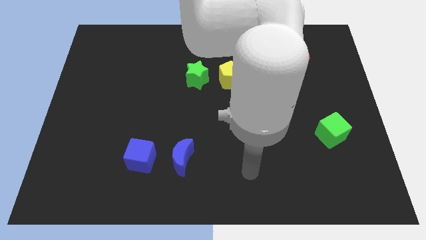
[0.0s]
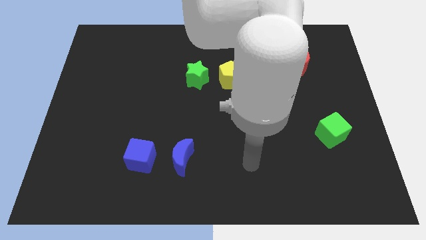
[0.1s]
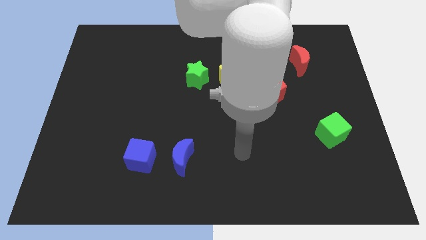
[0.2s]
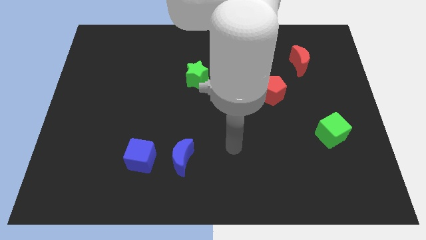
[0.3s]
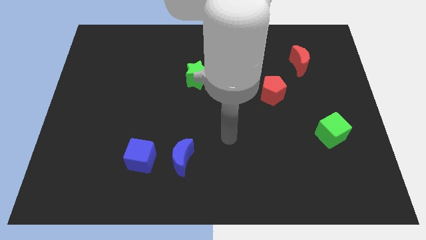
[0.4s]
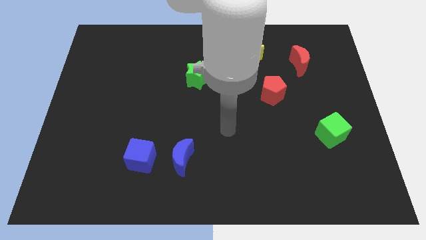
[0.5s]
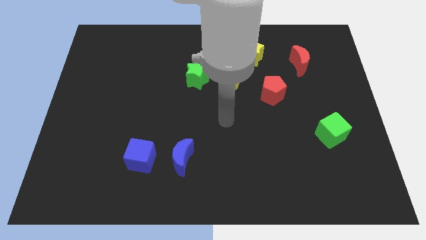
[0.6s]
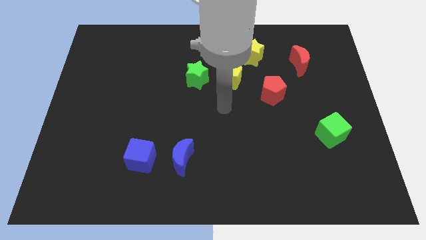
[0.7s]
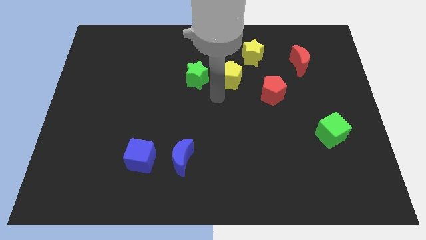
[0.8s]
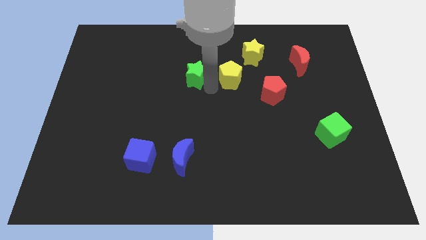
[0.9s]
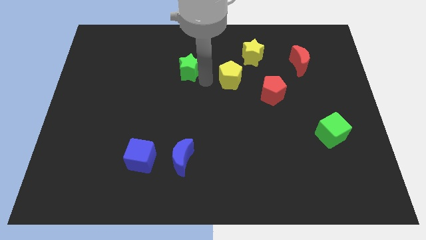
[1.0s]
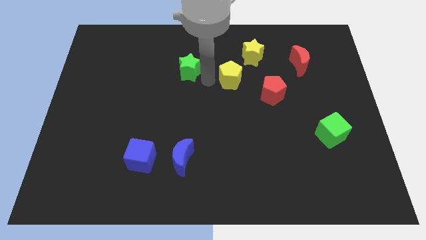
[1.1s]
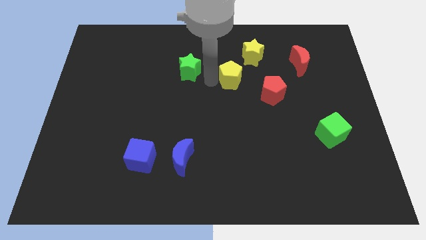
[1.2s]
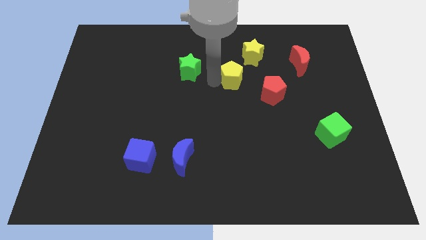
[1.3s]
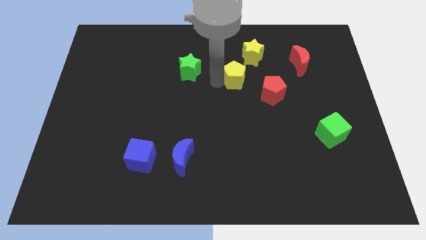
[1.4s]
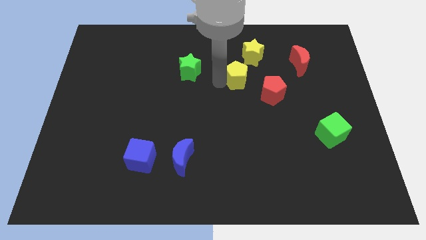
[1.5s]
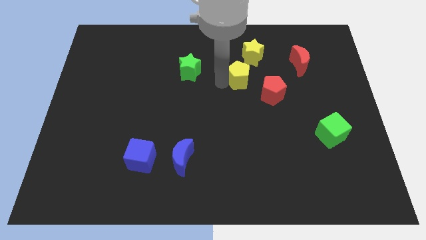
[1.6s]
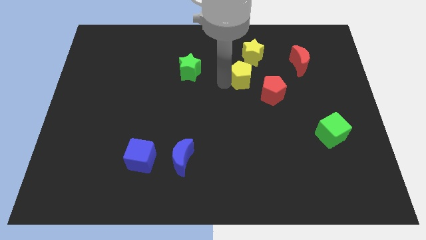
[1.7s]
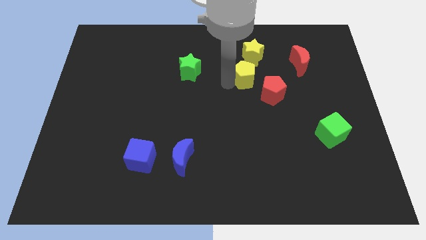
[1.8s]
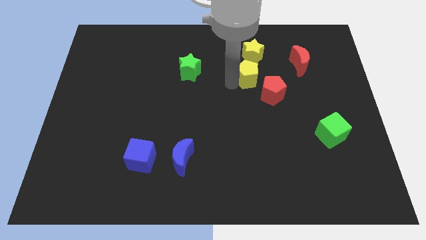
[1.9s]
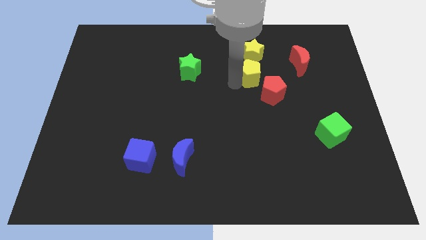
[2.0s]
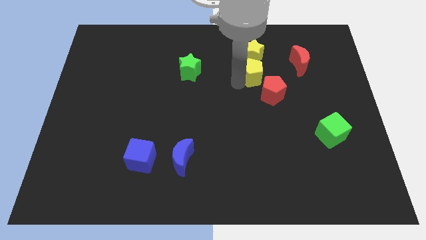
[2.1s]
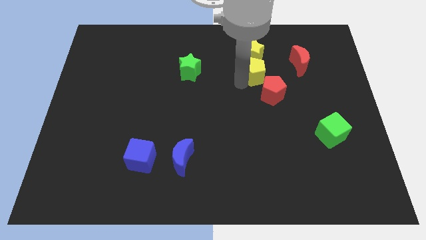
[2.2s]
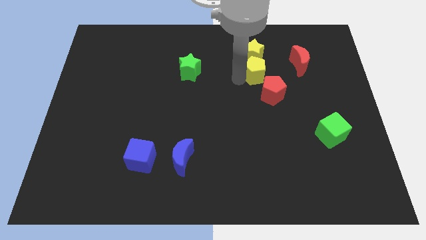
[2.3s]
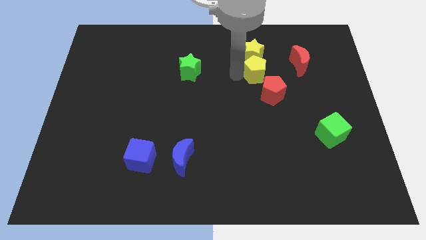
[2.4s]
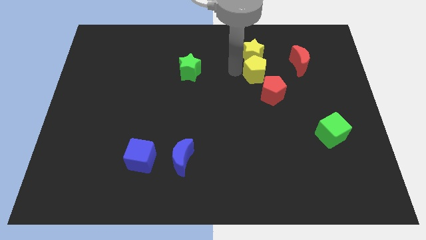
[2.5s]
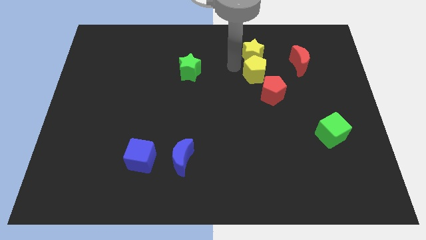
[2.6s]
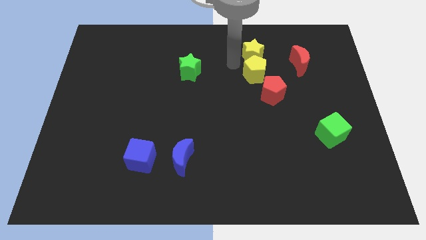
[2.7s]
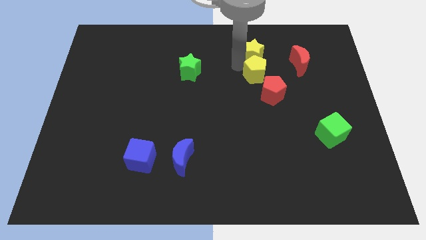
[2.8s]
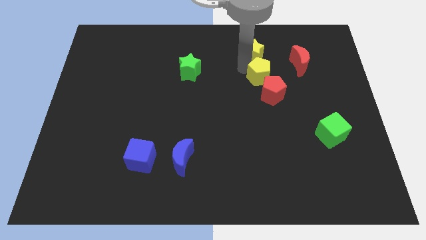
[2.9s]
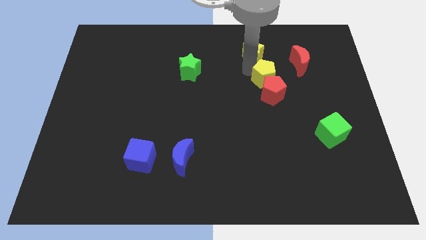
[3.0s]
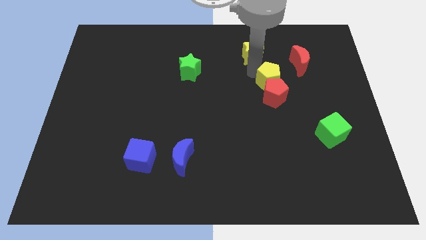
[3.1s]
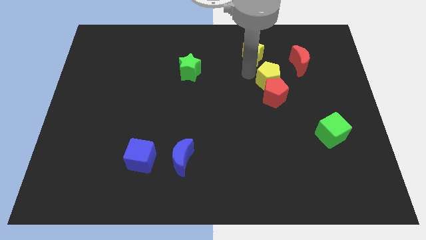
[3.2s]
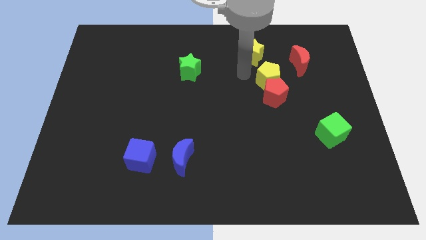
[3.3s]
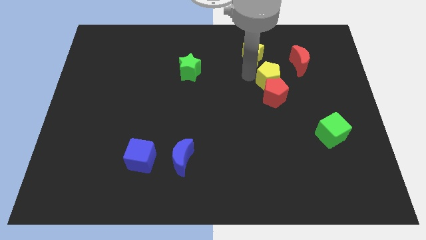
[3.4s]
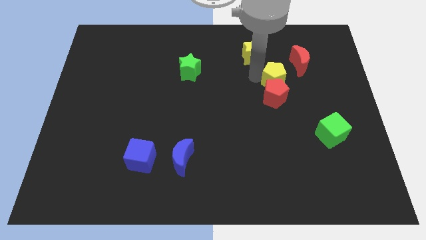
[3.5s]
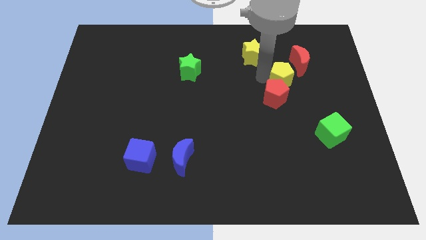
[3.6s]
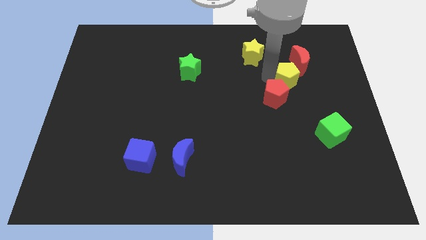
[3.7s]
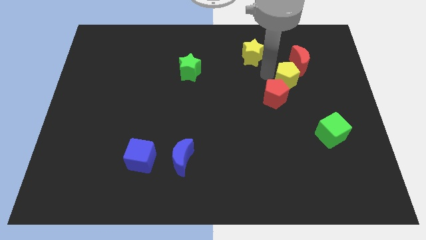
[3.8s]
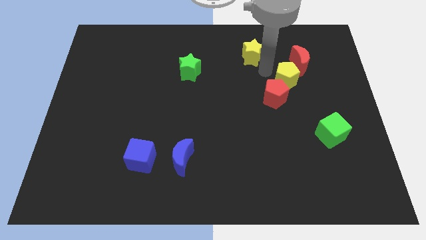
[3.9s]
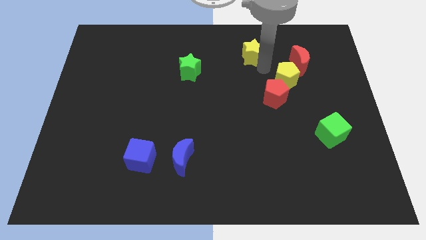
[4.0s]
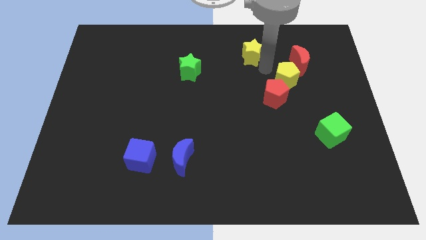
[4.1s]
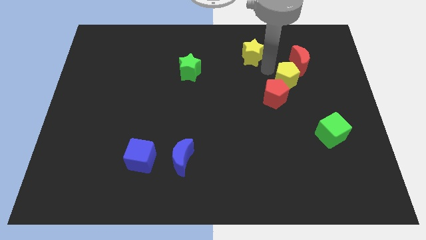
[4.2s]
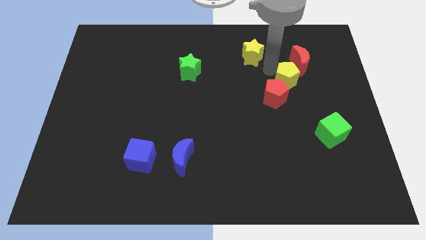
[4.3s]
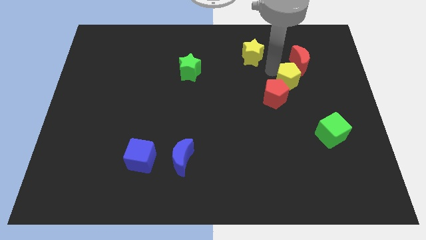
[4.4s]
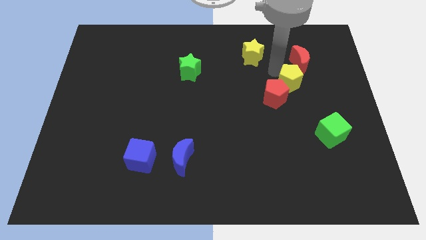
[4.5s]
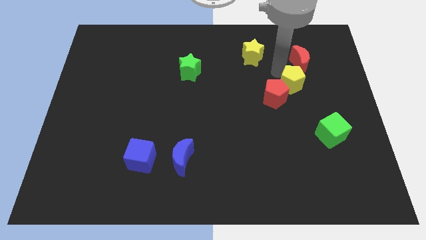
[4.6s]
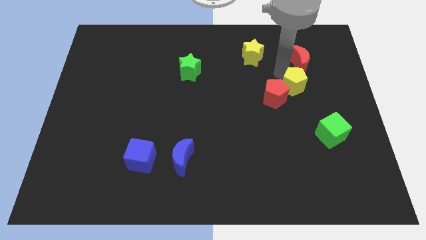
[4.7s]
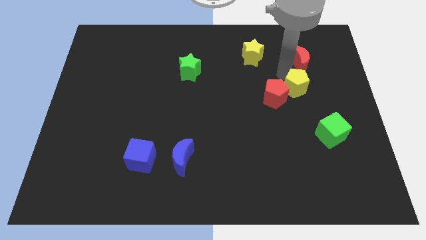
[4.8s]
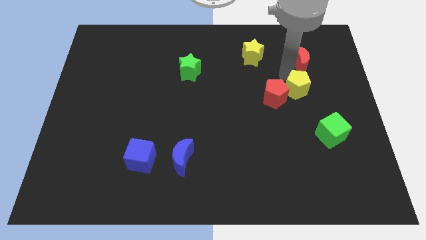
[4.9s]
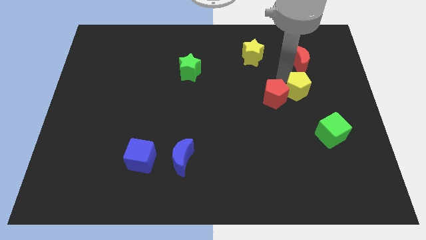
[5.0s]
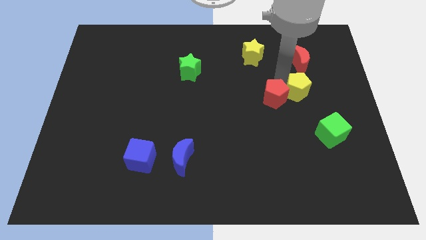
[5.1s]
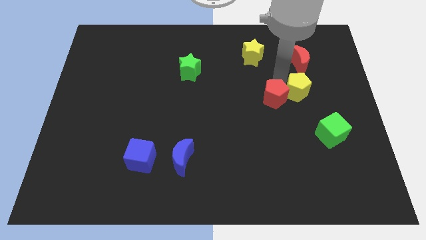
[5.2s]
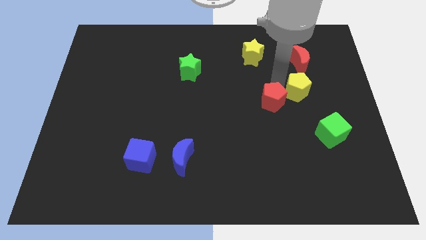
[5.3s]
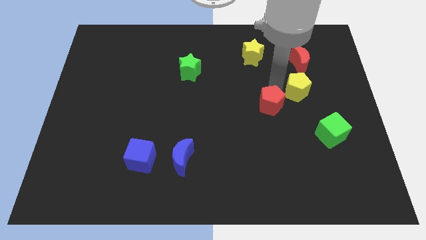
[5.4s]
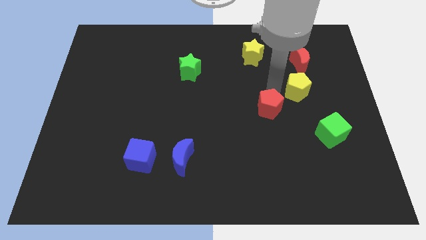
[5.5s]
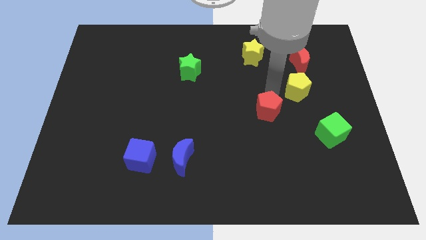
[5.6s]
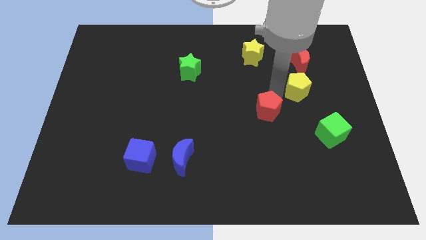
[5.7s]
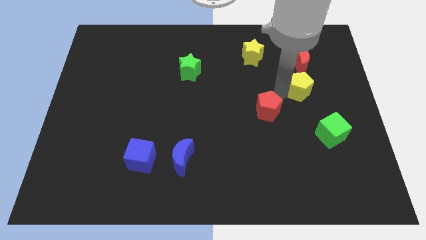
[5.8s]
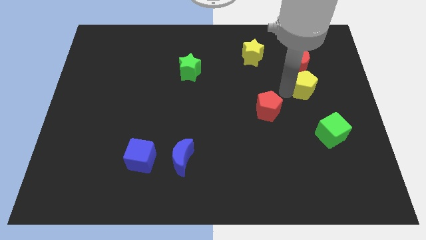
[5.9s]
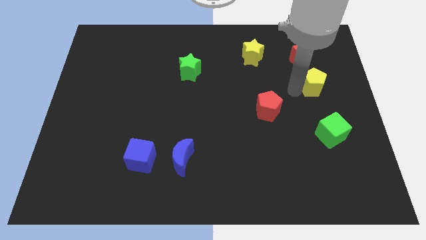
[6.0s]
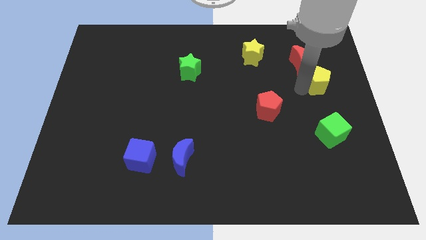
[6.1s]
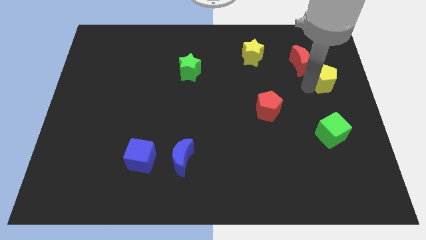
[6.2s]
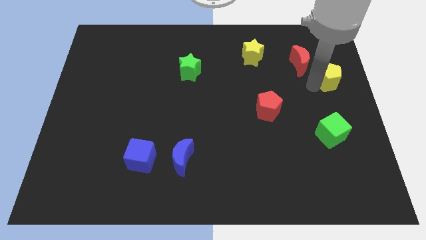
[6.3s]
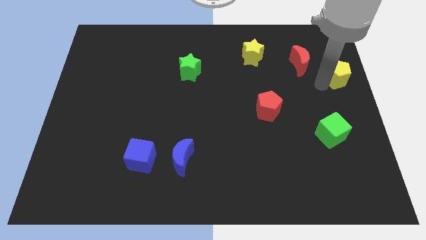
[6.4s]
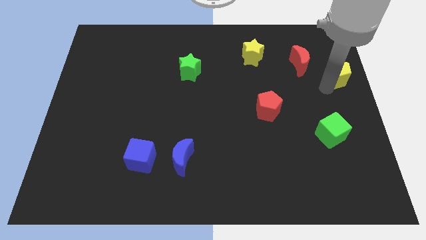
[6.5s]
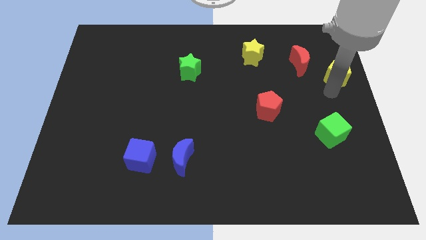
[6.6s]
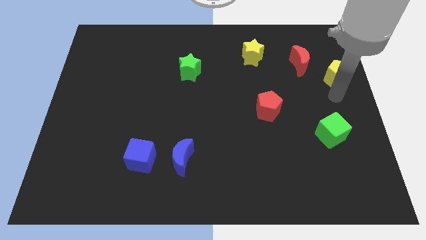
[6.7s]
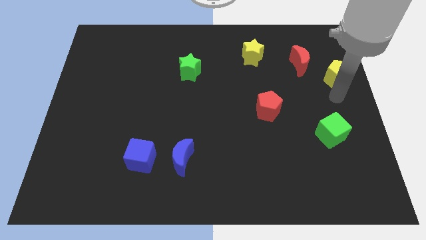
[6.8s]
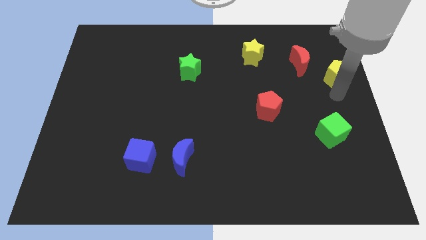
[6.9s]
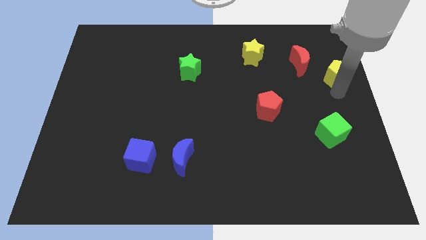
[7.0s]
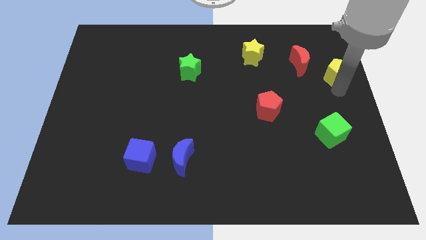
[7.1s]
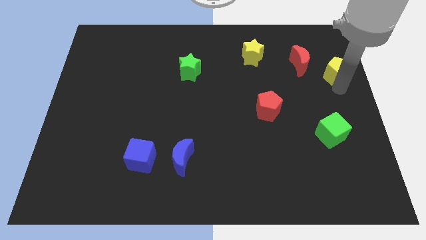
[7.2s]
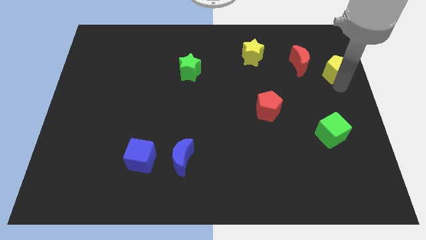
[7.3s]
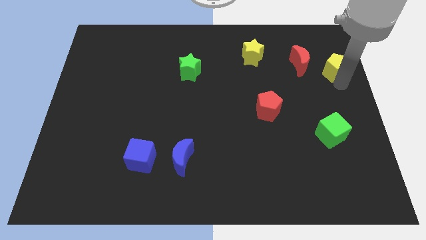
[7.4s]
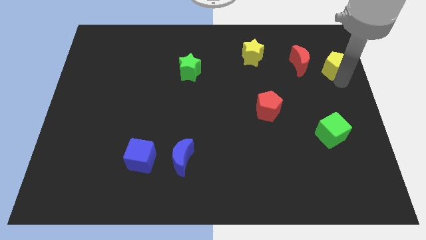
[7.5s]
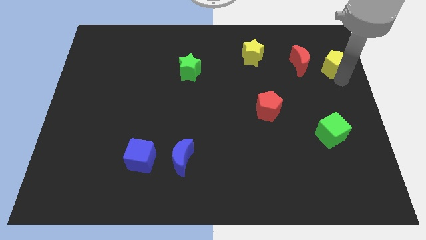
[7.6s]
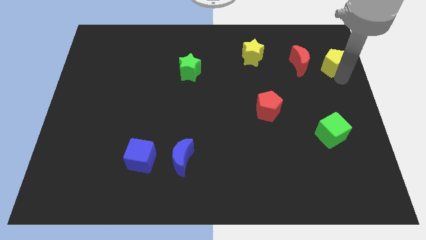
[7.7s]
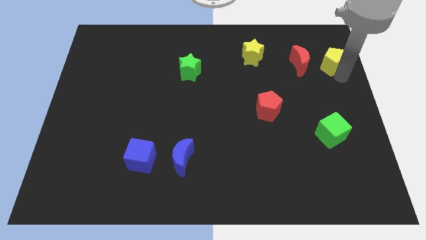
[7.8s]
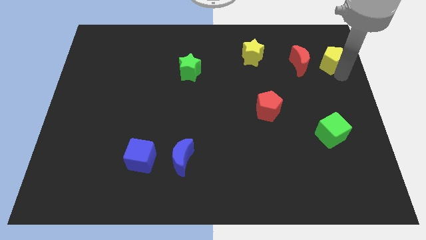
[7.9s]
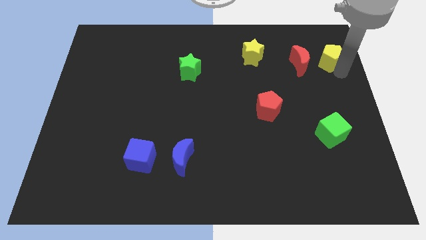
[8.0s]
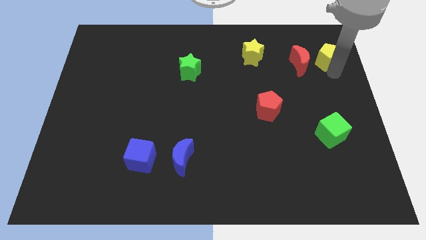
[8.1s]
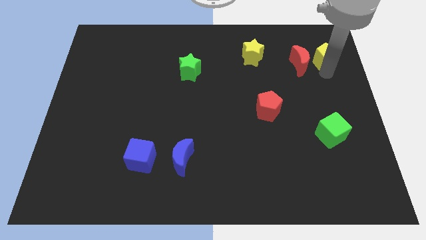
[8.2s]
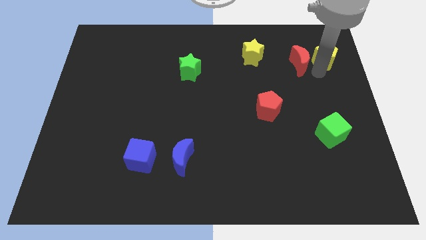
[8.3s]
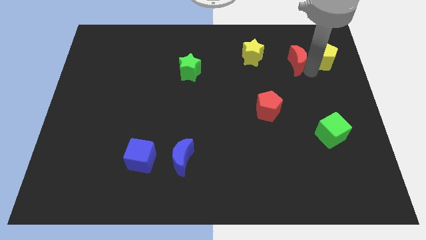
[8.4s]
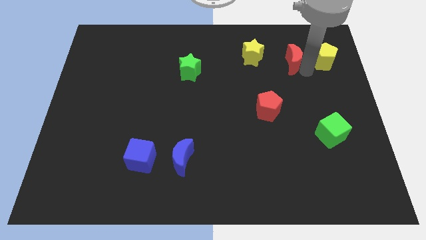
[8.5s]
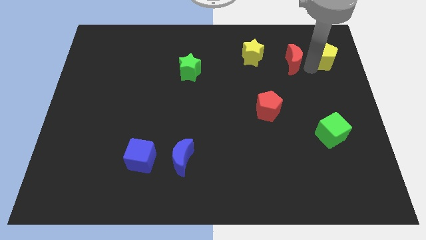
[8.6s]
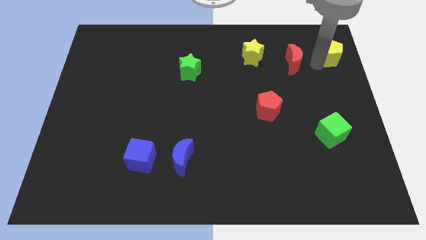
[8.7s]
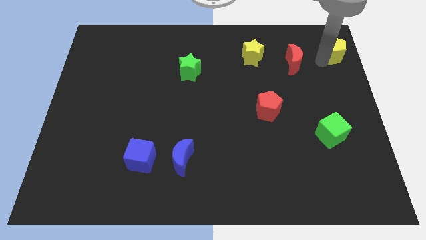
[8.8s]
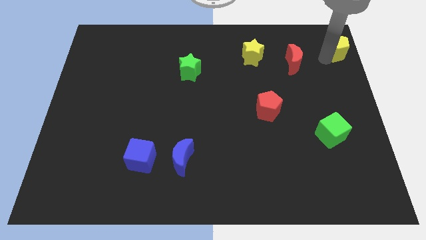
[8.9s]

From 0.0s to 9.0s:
push the yellow pentagon to the upper right corner
